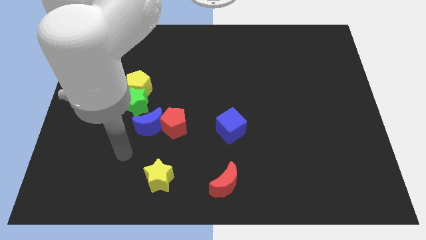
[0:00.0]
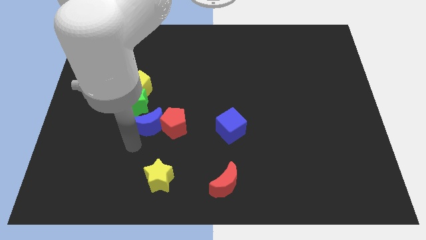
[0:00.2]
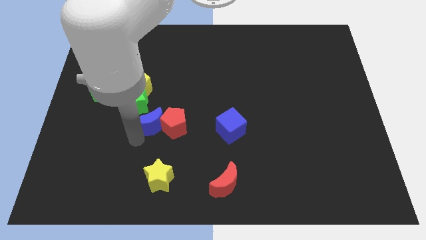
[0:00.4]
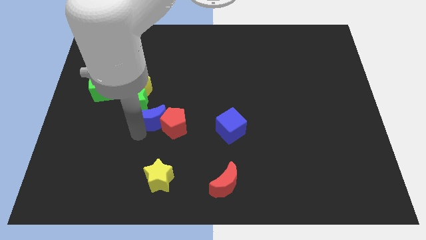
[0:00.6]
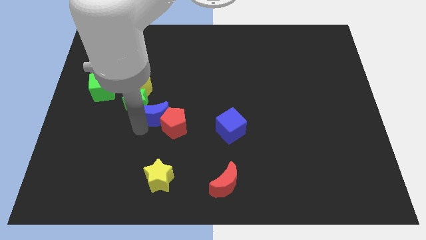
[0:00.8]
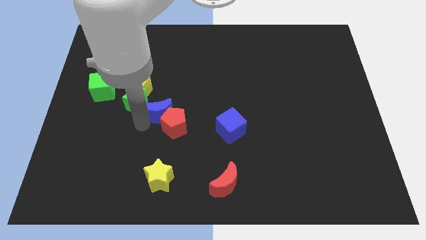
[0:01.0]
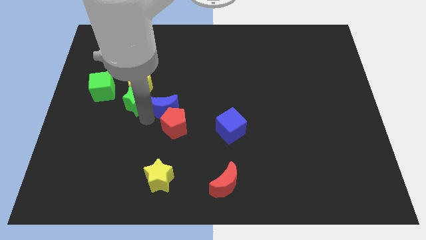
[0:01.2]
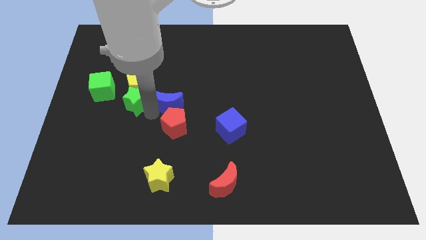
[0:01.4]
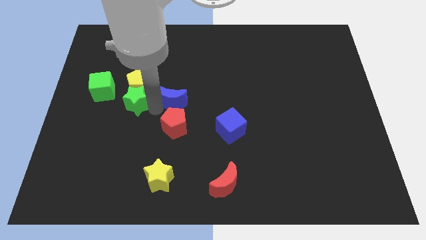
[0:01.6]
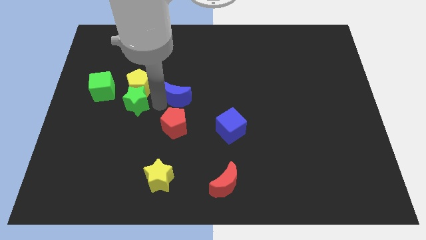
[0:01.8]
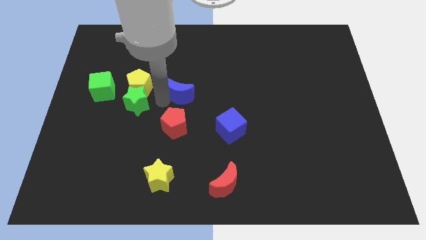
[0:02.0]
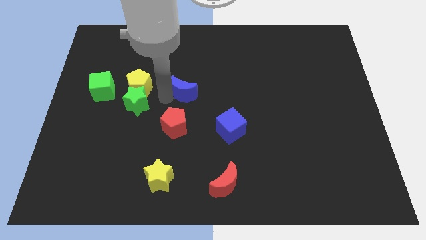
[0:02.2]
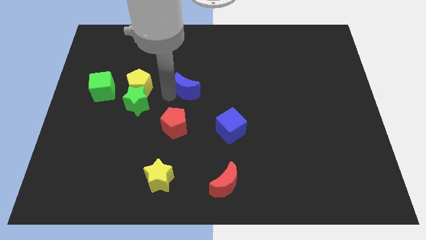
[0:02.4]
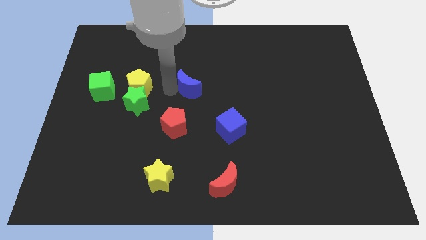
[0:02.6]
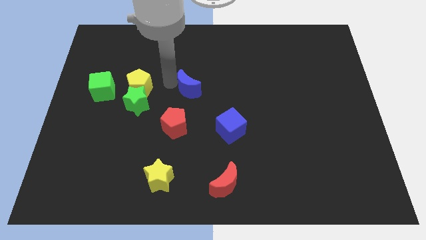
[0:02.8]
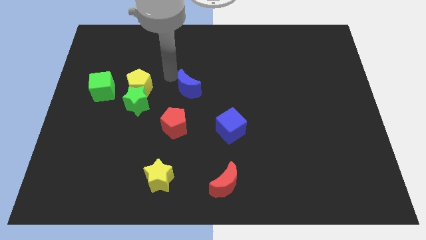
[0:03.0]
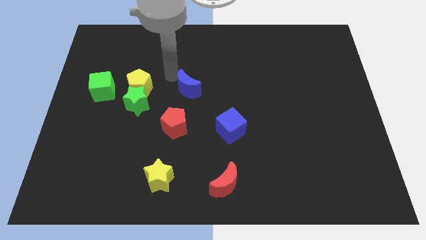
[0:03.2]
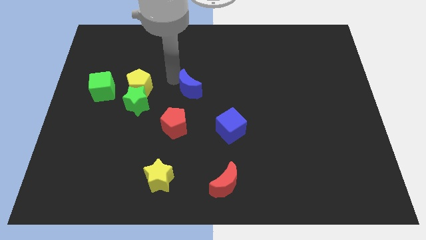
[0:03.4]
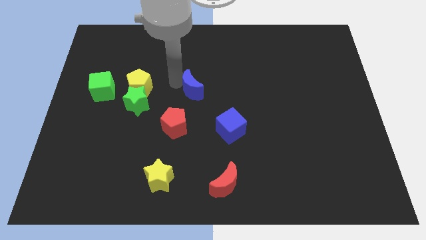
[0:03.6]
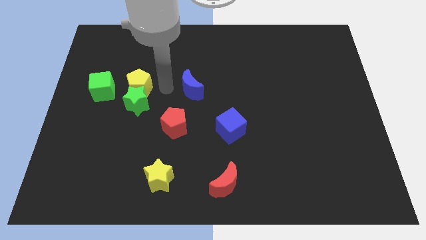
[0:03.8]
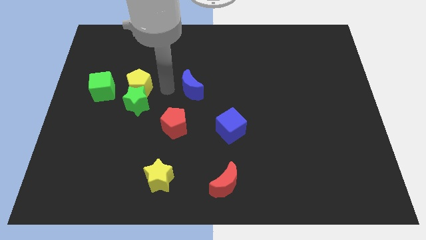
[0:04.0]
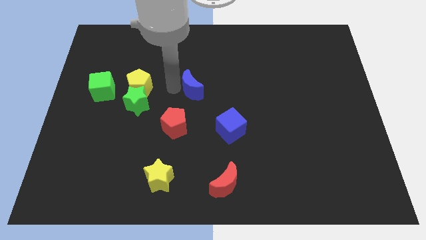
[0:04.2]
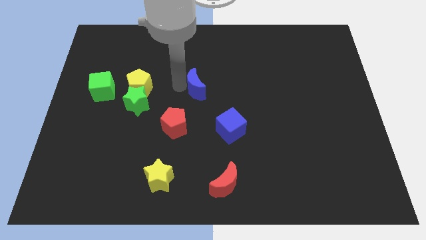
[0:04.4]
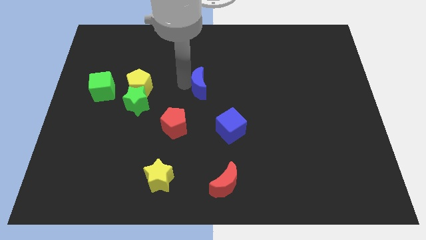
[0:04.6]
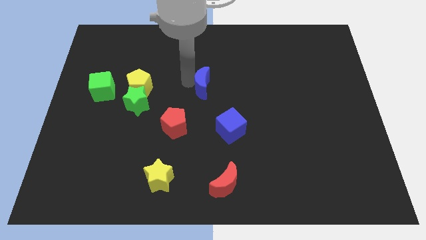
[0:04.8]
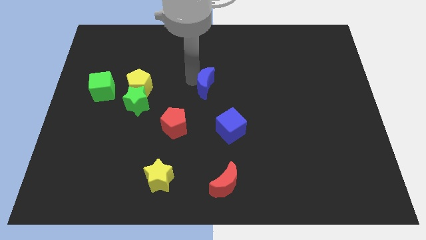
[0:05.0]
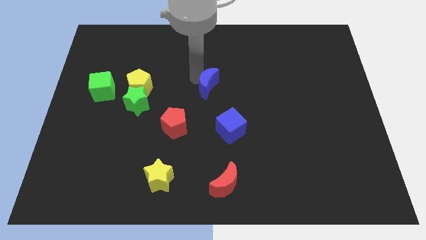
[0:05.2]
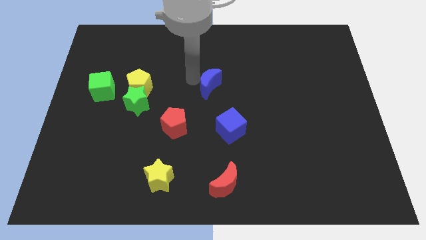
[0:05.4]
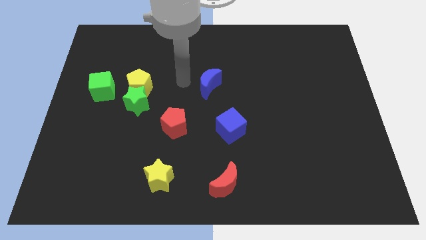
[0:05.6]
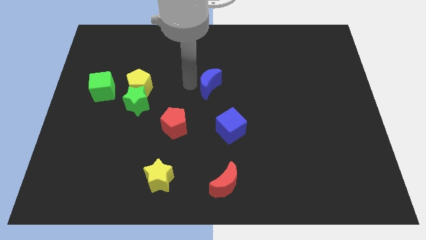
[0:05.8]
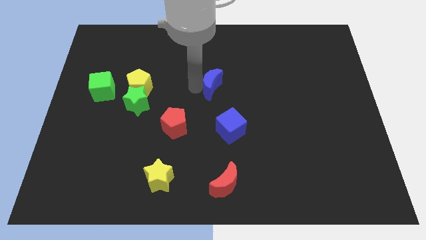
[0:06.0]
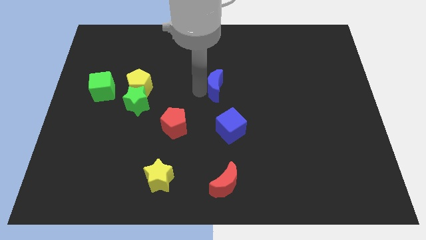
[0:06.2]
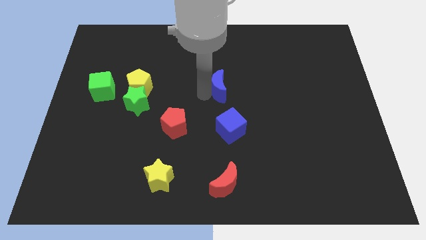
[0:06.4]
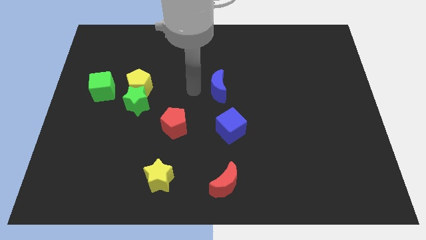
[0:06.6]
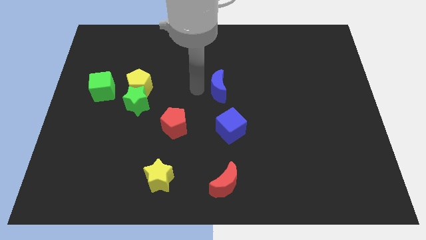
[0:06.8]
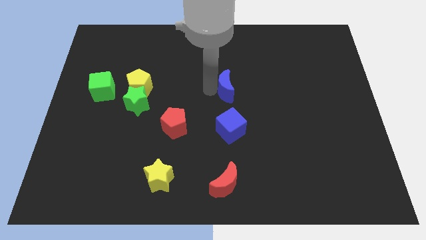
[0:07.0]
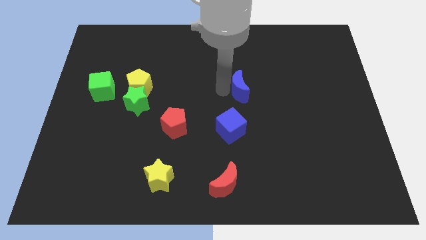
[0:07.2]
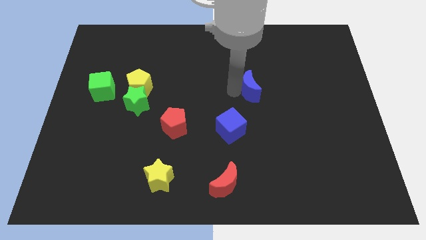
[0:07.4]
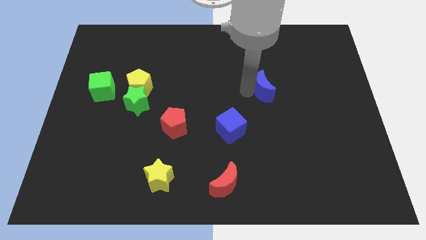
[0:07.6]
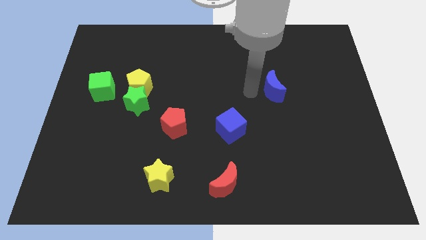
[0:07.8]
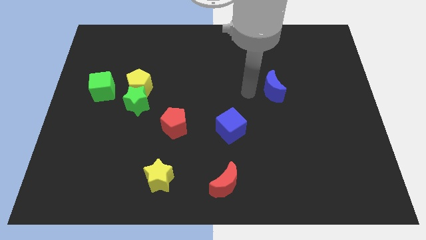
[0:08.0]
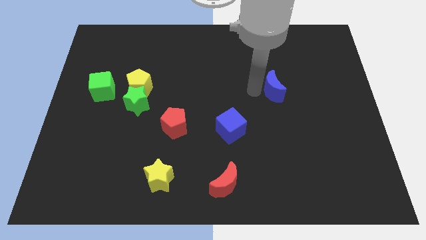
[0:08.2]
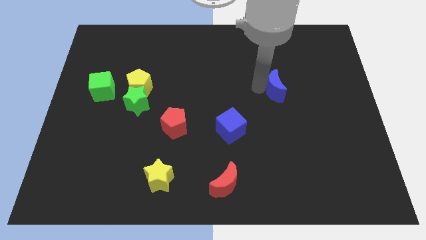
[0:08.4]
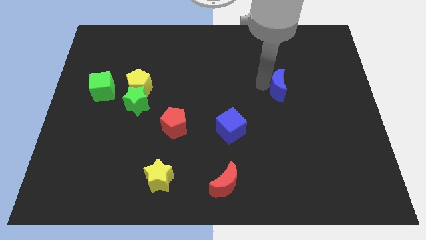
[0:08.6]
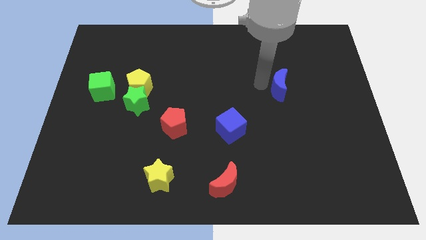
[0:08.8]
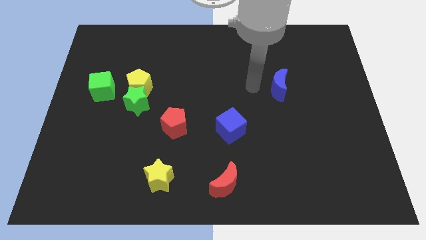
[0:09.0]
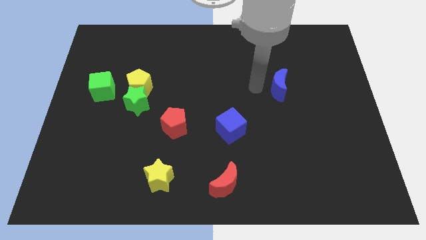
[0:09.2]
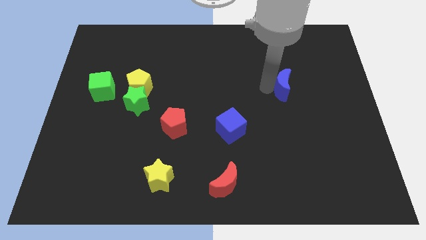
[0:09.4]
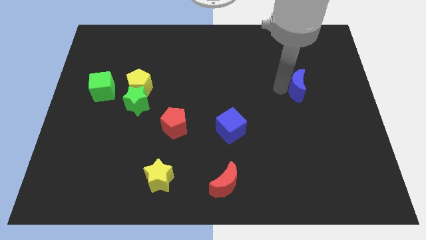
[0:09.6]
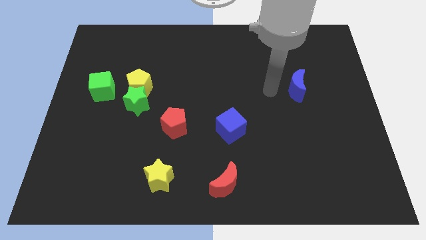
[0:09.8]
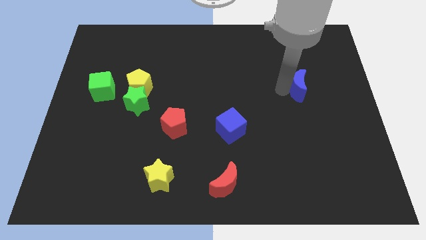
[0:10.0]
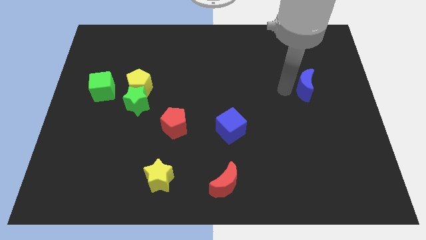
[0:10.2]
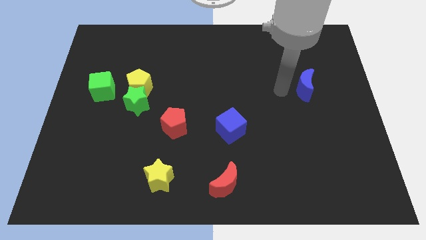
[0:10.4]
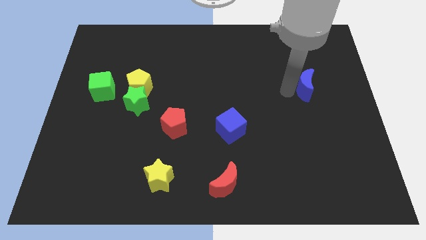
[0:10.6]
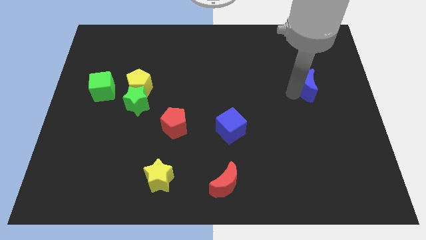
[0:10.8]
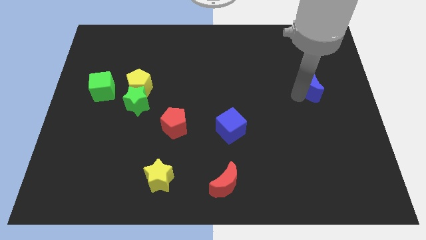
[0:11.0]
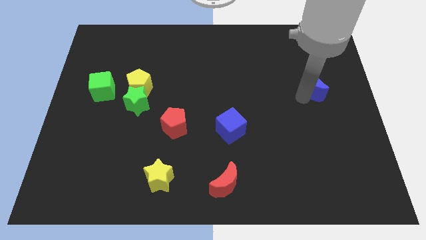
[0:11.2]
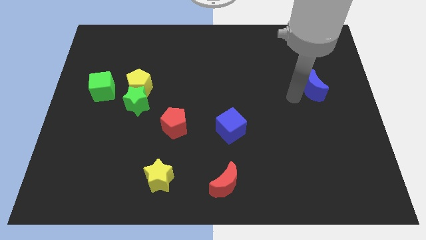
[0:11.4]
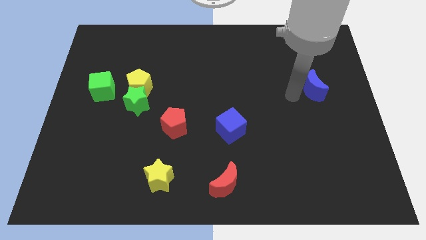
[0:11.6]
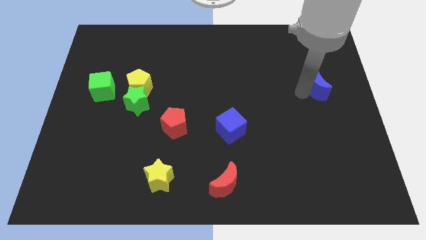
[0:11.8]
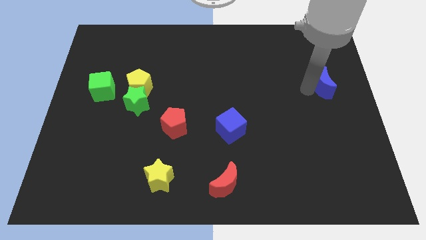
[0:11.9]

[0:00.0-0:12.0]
slide the blue moon to the center right

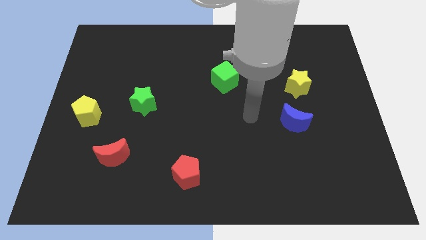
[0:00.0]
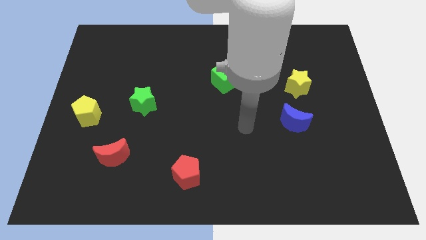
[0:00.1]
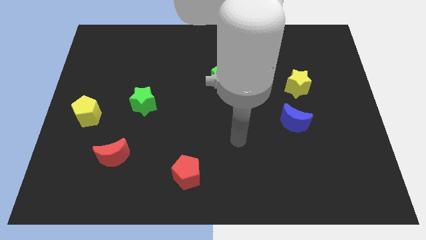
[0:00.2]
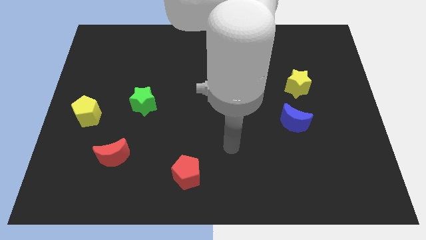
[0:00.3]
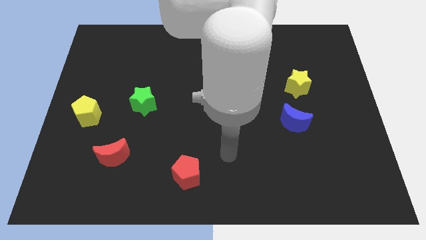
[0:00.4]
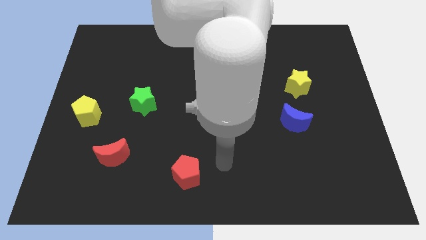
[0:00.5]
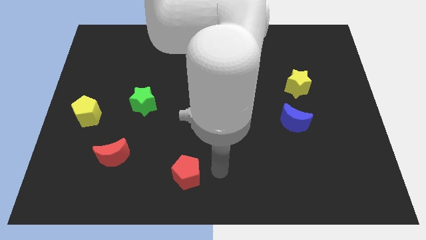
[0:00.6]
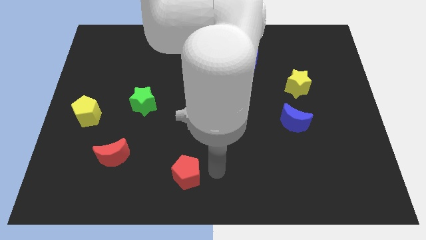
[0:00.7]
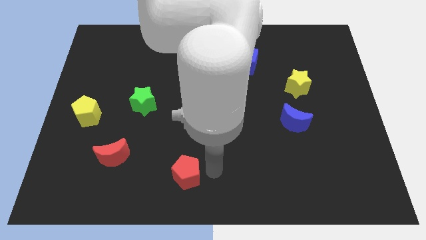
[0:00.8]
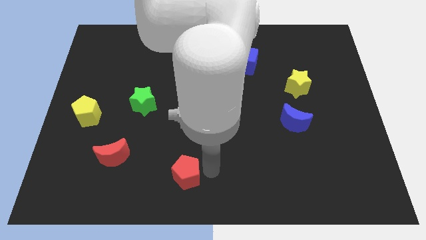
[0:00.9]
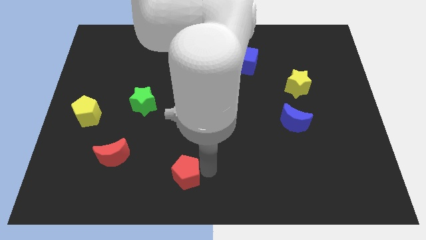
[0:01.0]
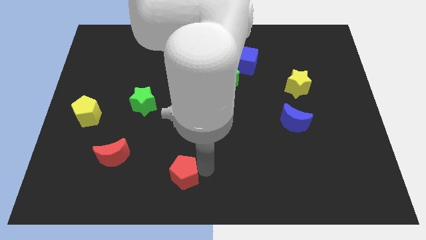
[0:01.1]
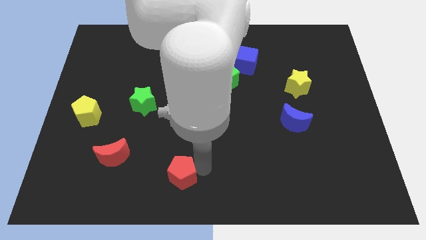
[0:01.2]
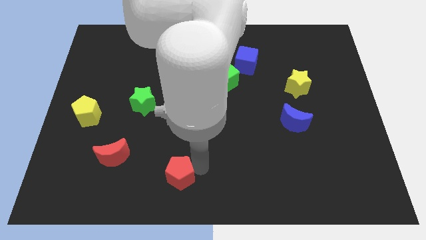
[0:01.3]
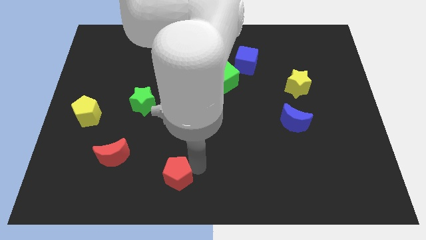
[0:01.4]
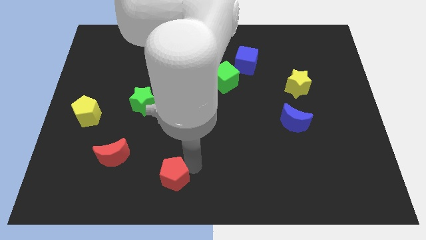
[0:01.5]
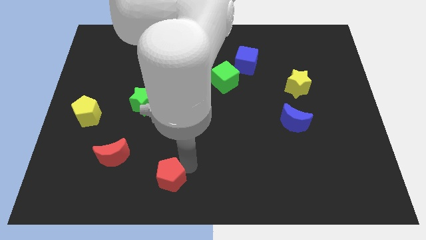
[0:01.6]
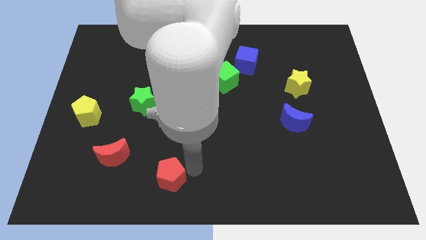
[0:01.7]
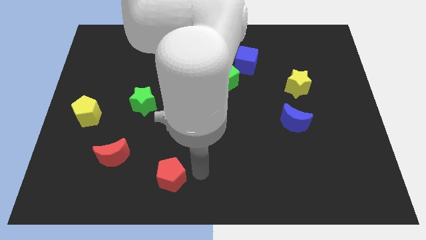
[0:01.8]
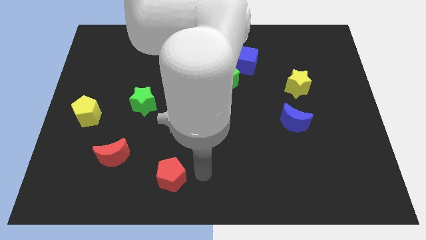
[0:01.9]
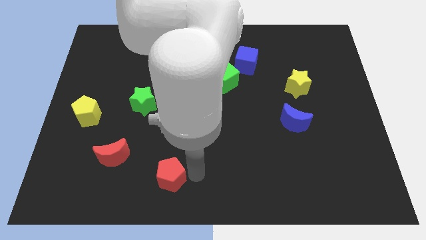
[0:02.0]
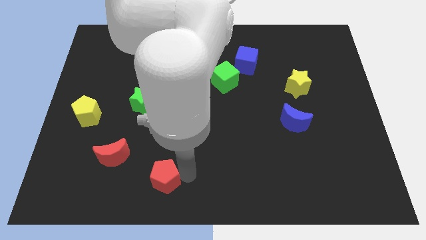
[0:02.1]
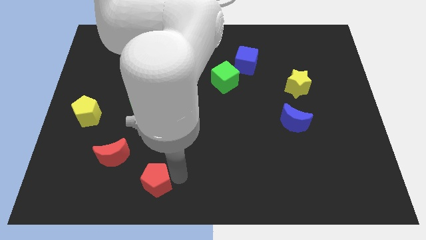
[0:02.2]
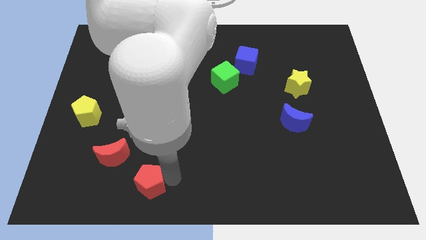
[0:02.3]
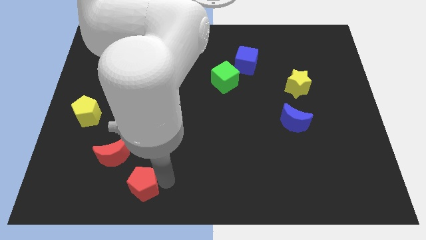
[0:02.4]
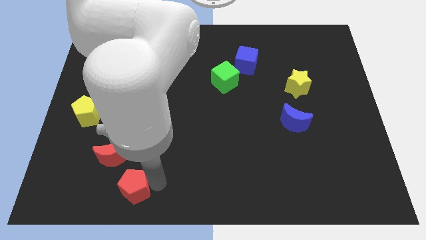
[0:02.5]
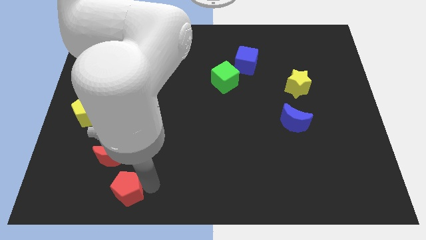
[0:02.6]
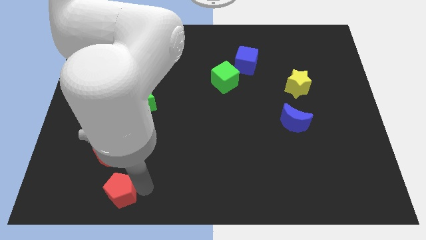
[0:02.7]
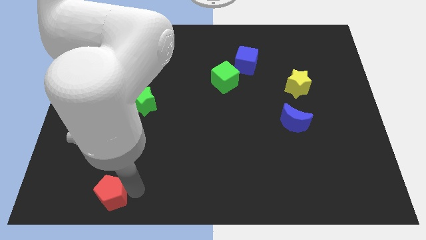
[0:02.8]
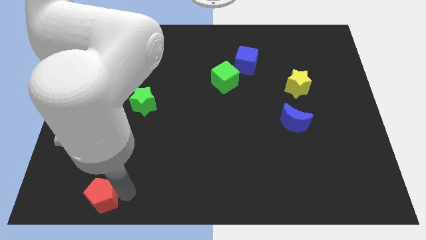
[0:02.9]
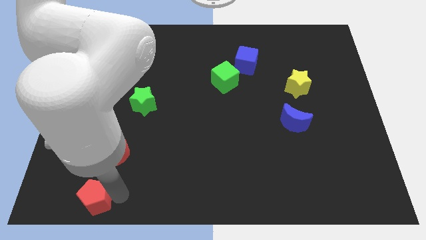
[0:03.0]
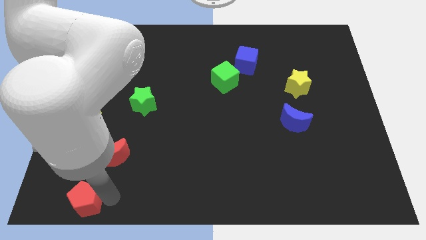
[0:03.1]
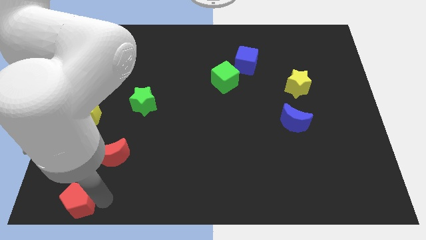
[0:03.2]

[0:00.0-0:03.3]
move the red pentagon to the bottom left
